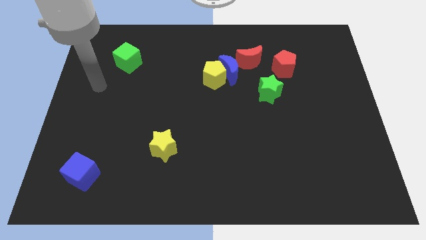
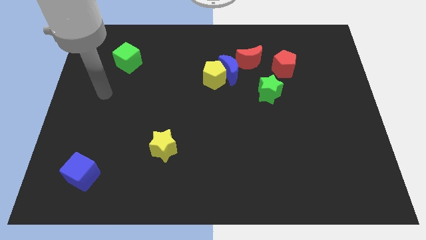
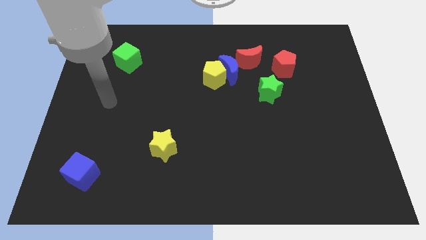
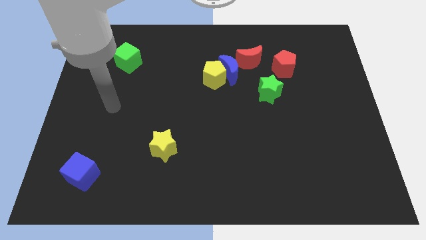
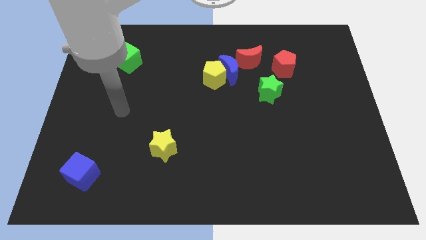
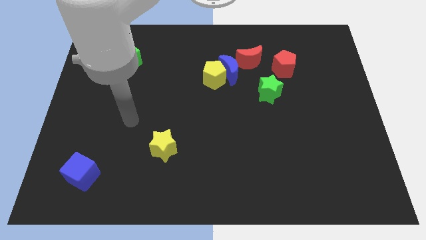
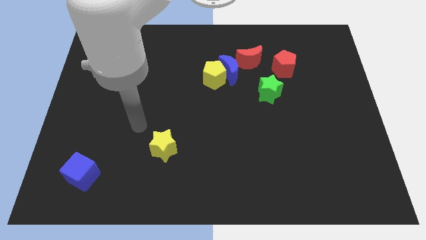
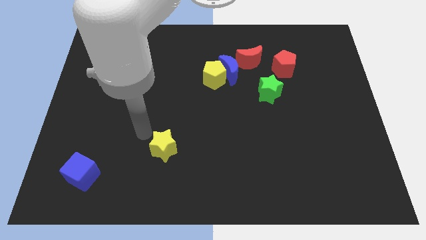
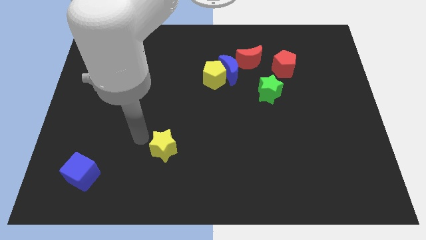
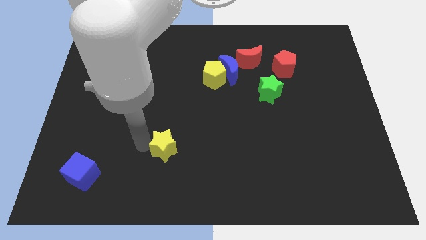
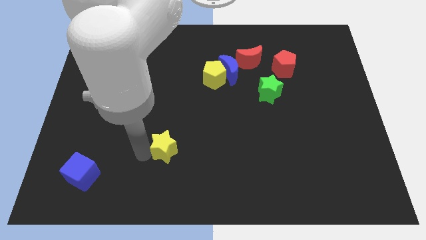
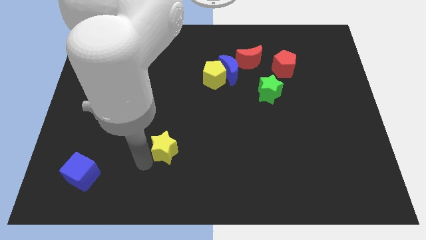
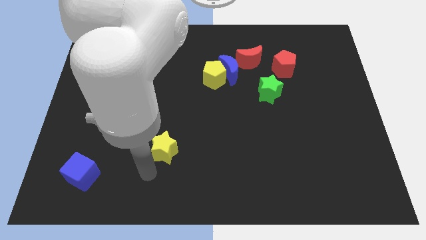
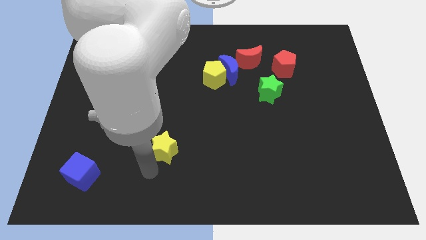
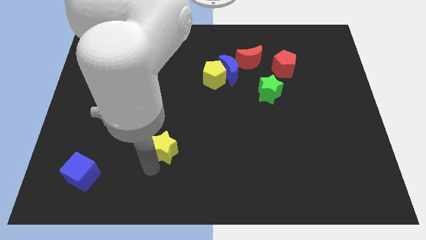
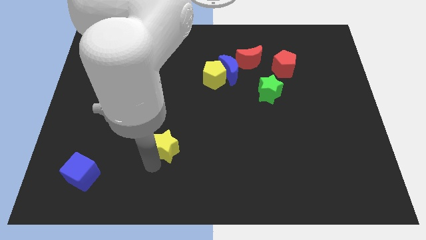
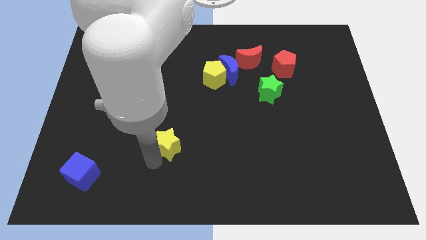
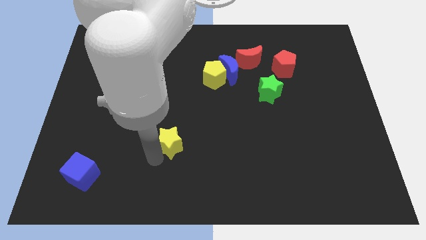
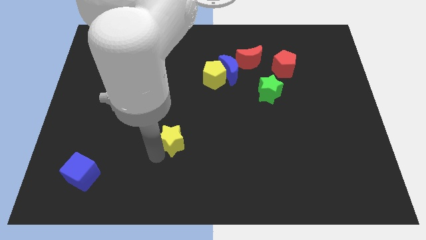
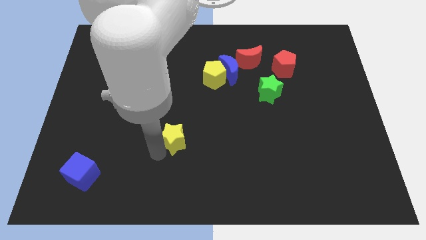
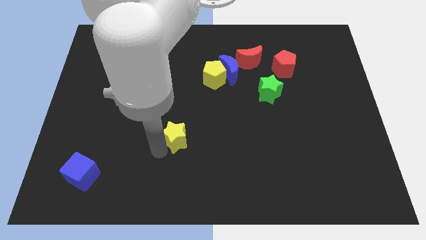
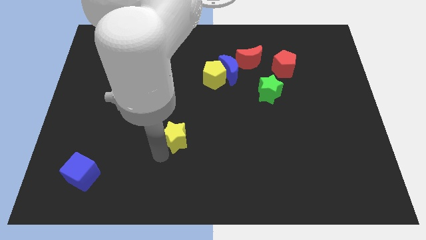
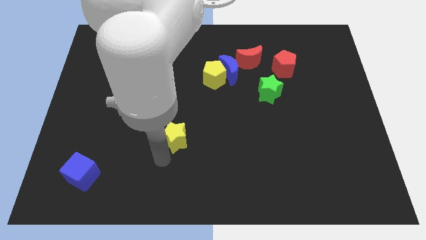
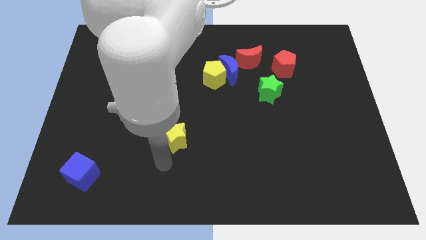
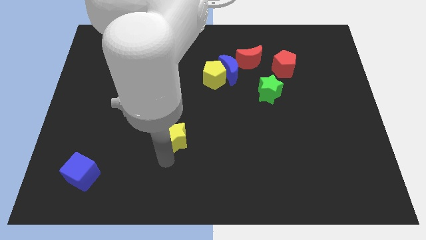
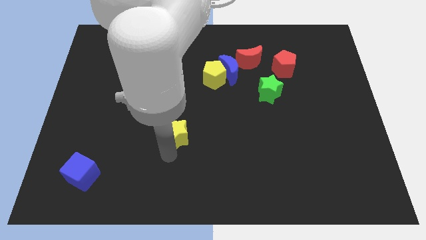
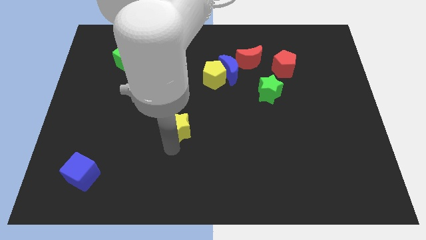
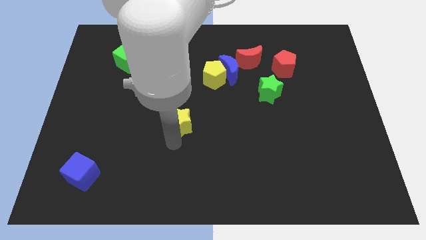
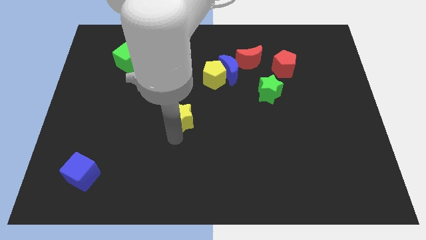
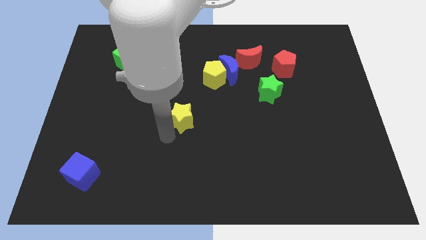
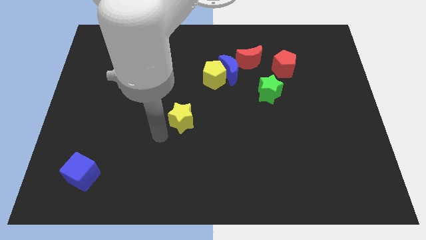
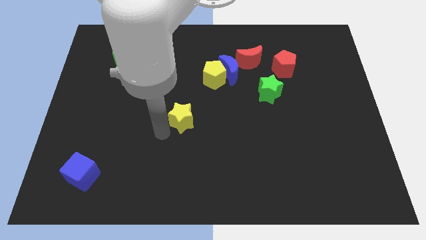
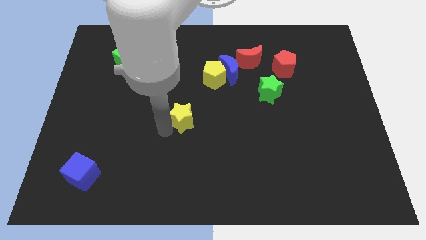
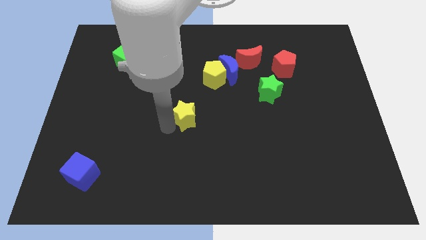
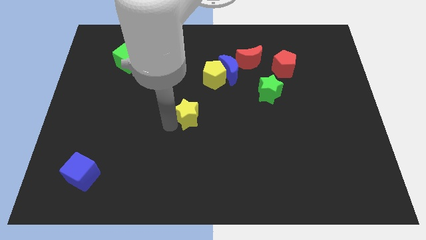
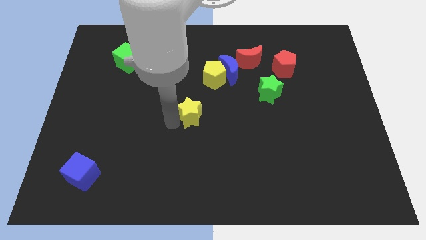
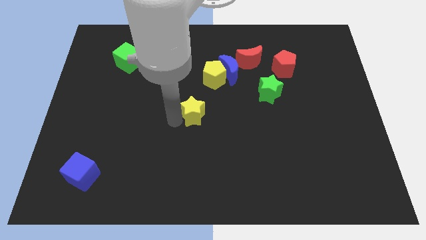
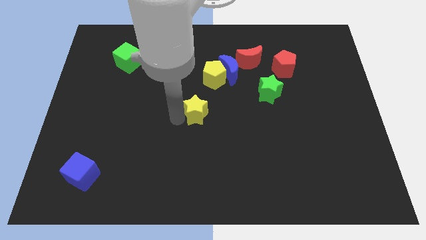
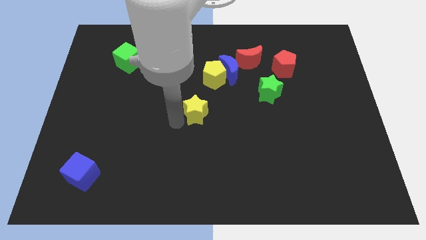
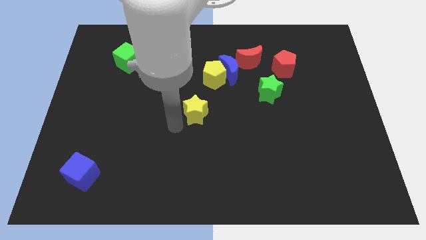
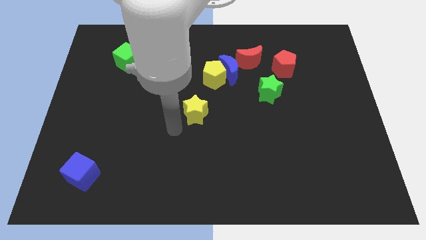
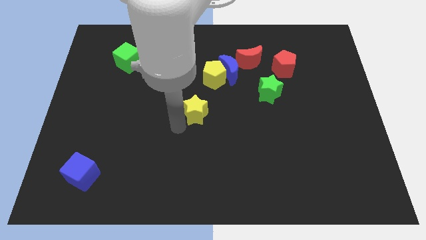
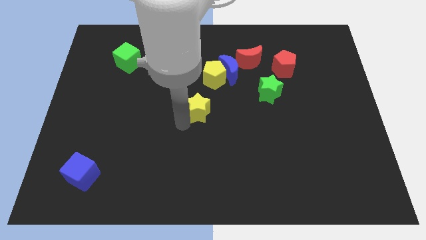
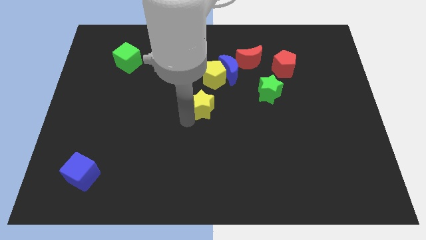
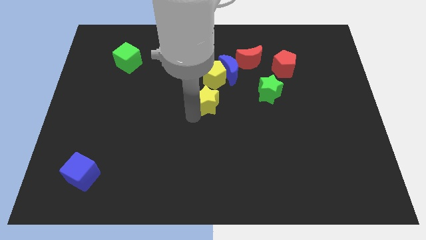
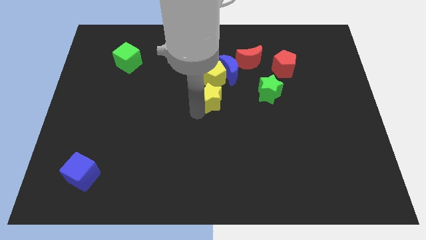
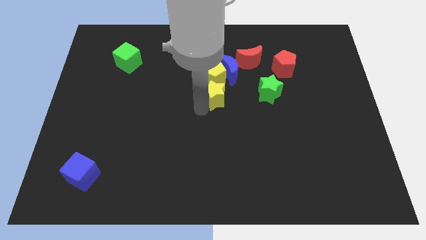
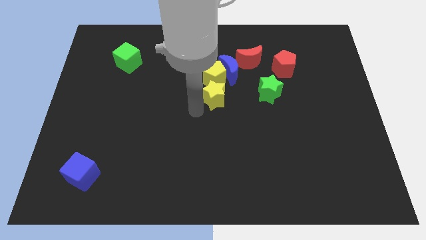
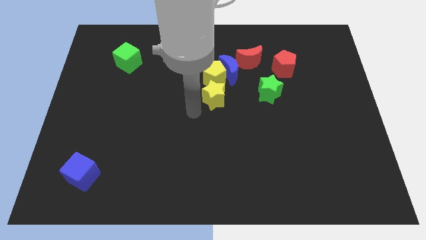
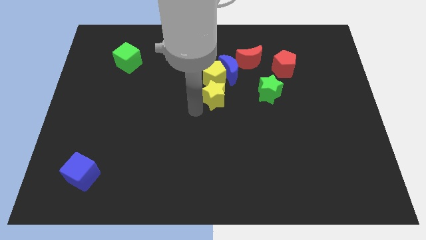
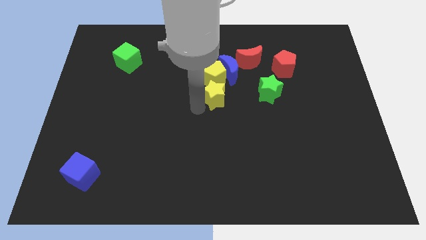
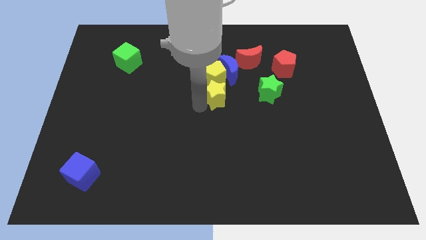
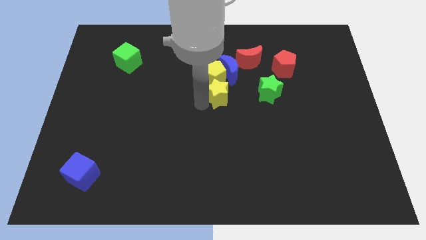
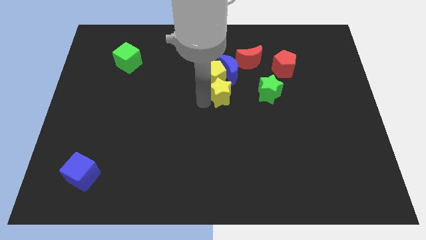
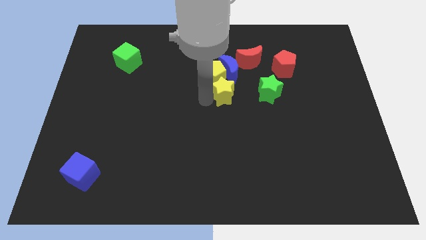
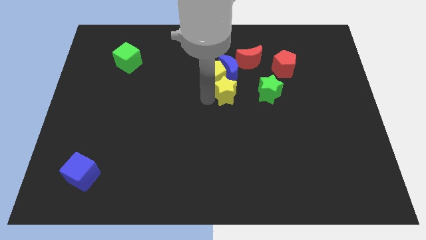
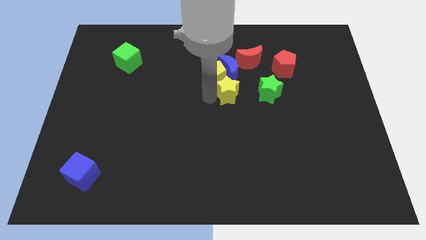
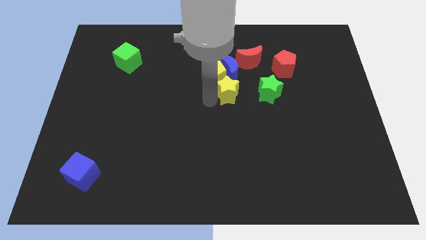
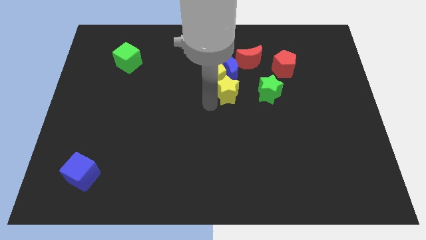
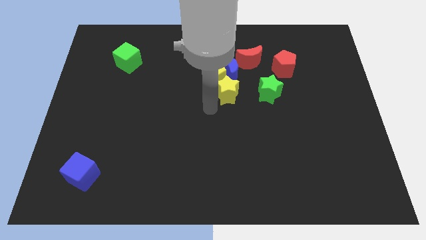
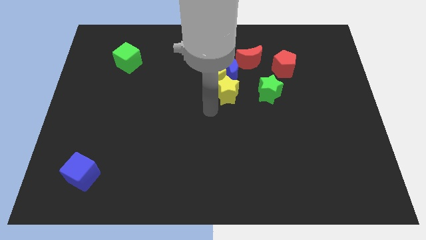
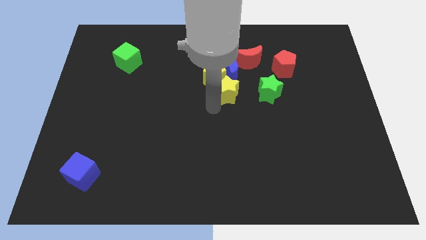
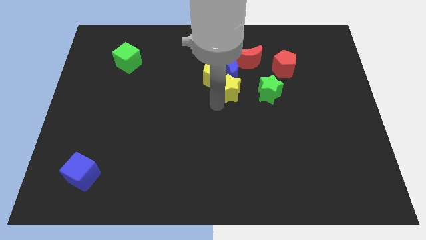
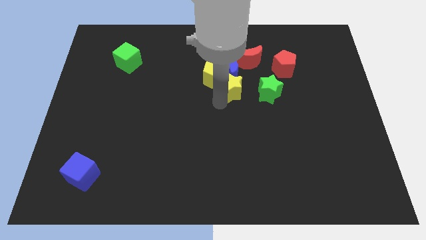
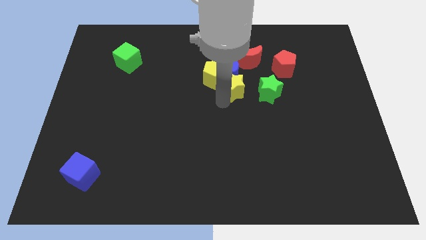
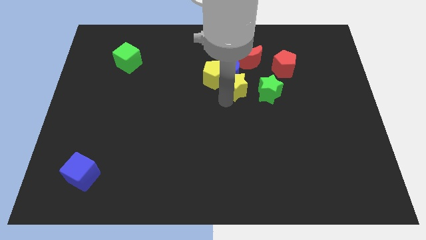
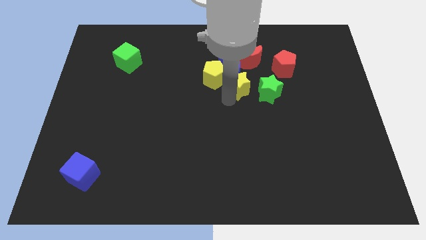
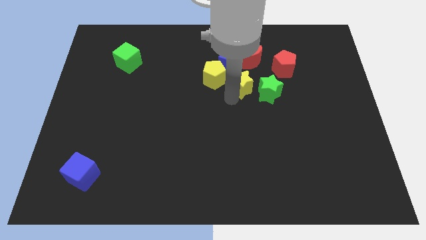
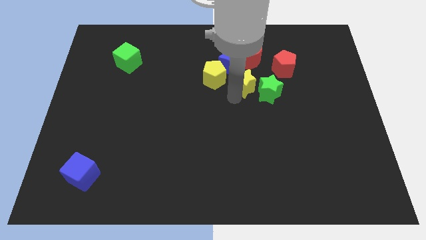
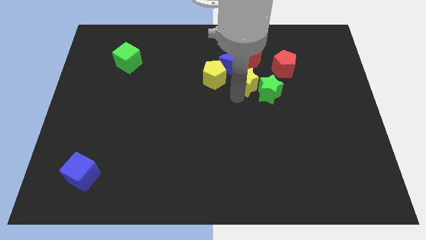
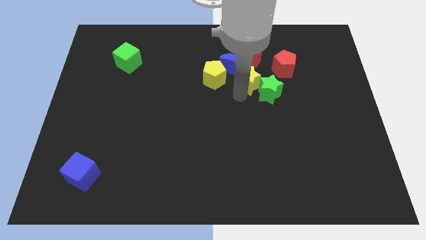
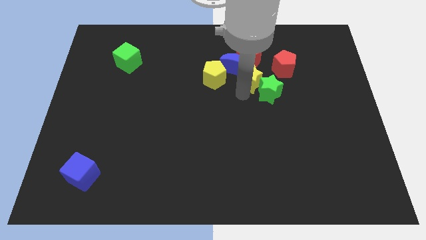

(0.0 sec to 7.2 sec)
put the yellow star towards the blue moon

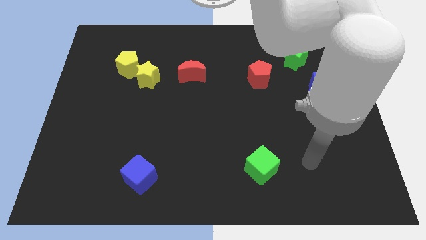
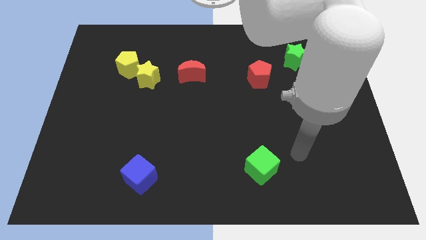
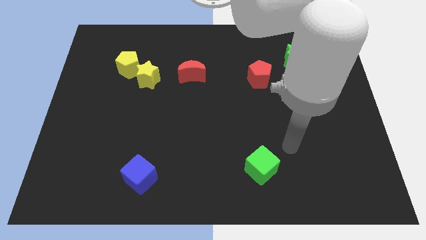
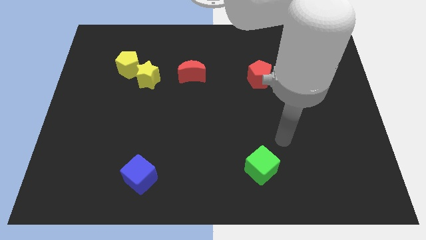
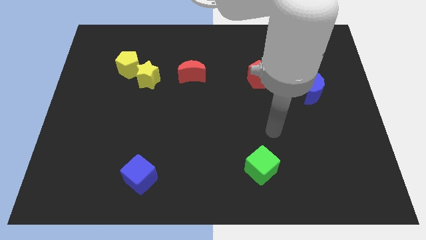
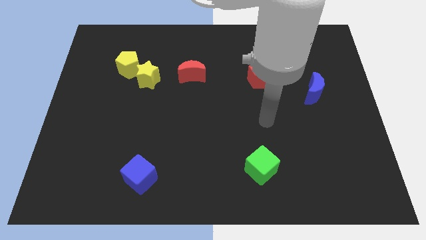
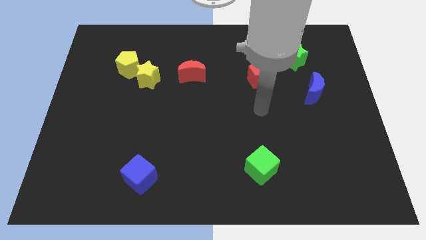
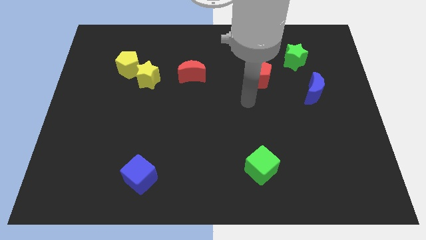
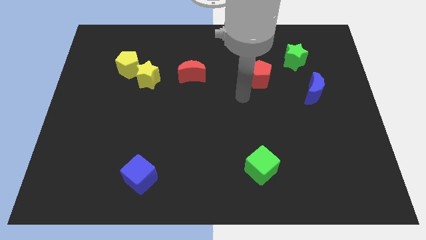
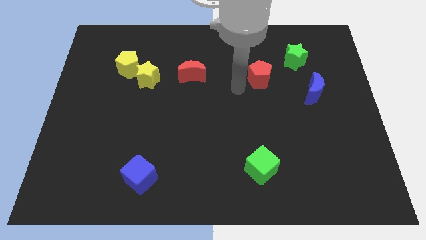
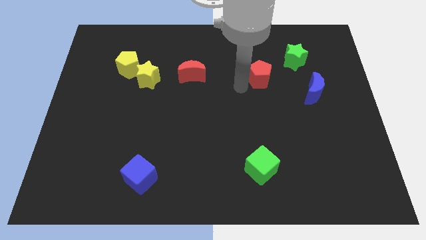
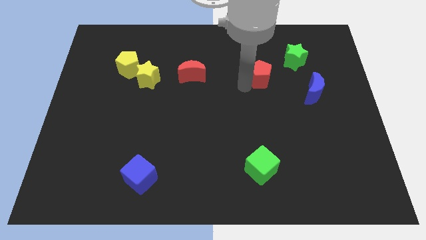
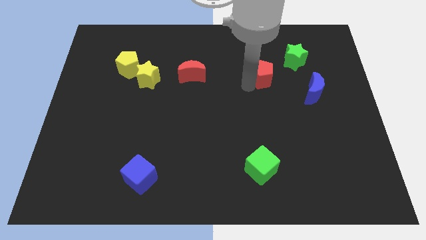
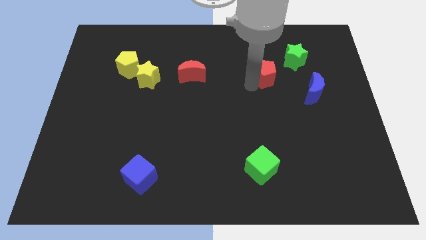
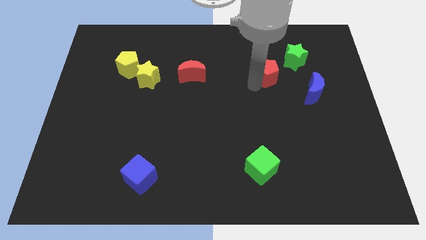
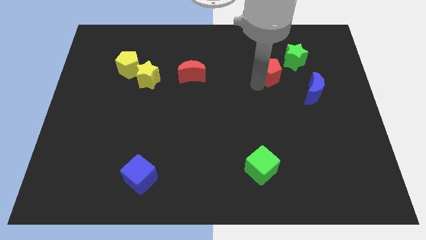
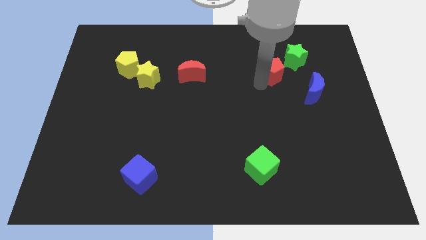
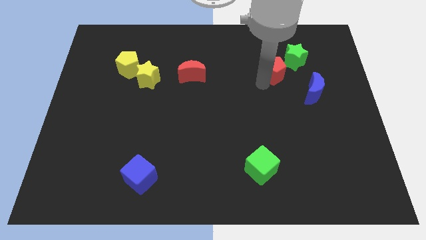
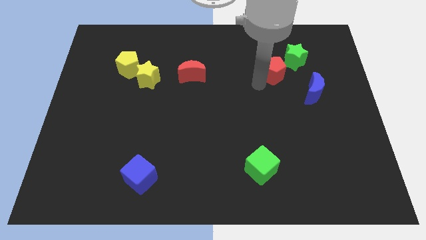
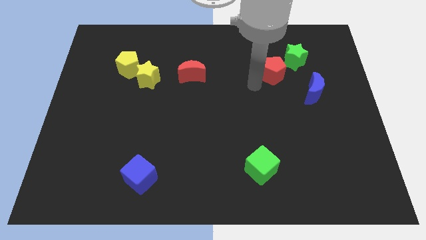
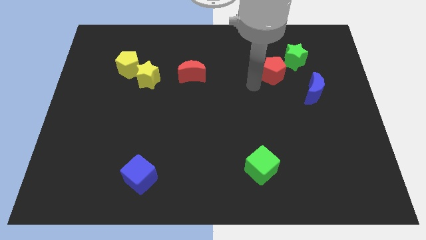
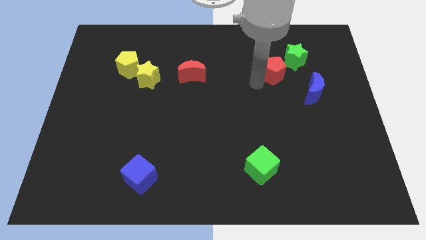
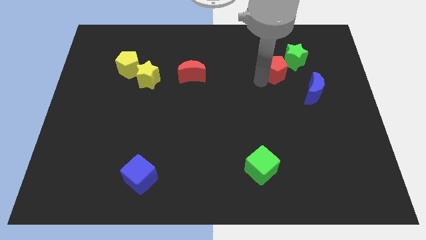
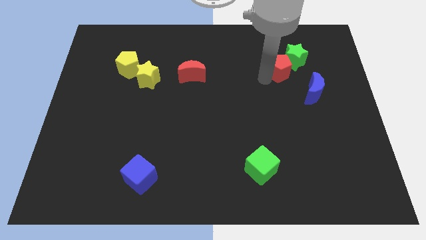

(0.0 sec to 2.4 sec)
put the red pentagon next to the green star
